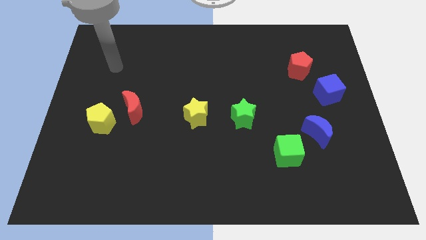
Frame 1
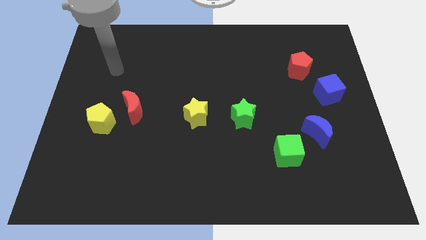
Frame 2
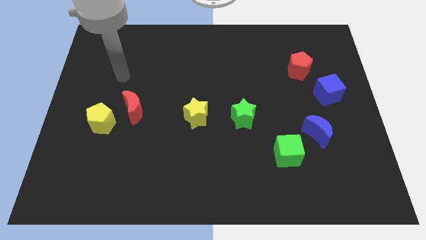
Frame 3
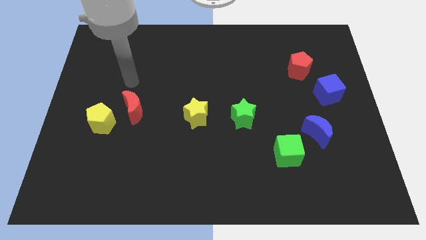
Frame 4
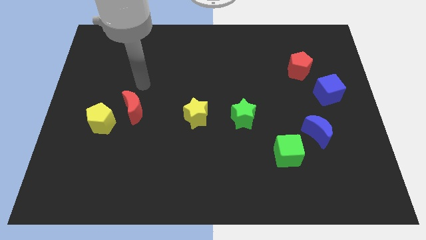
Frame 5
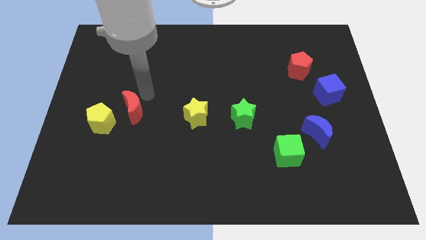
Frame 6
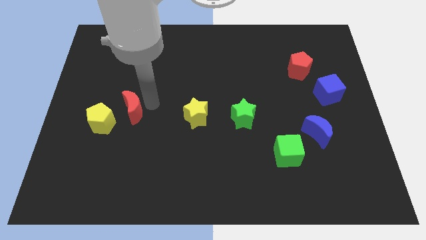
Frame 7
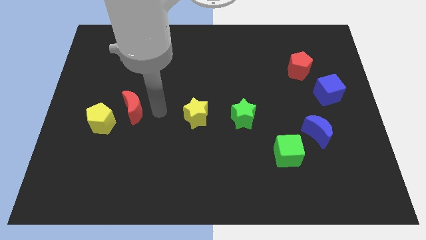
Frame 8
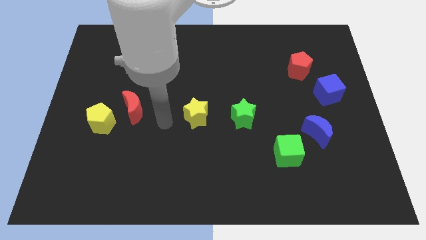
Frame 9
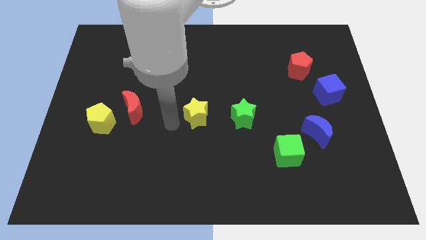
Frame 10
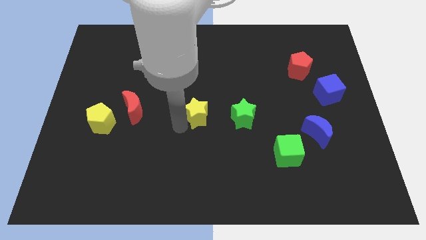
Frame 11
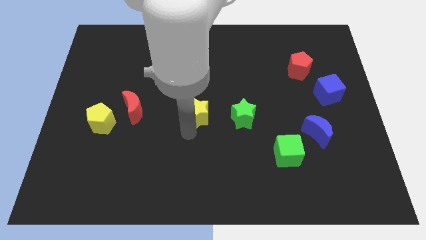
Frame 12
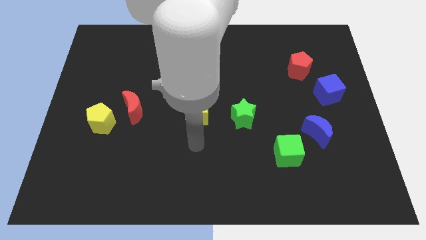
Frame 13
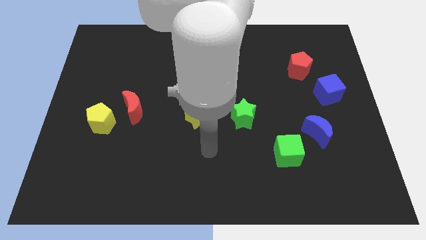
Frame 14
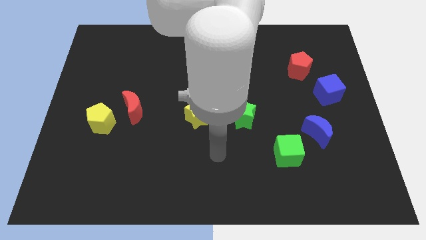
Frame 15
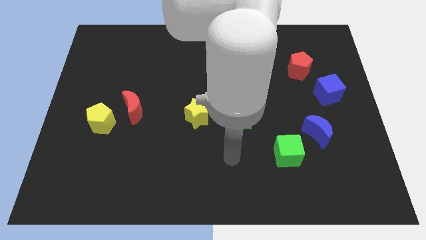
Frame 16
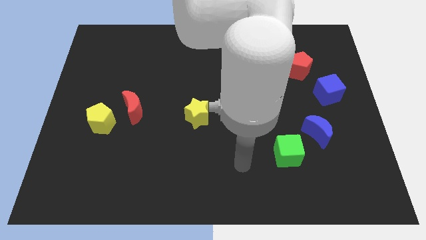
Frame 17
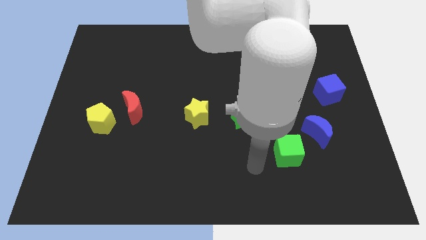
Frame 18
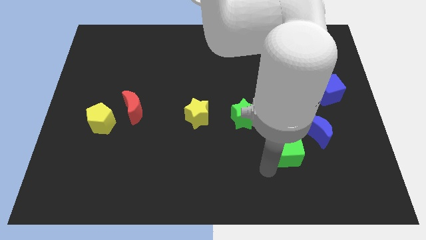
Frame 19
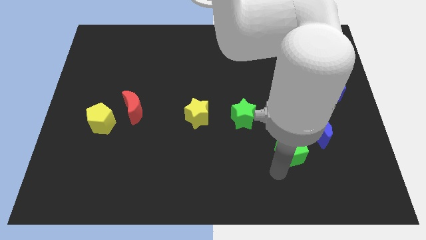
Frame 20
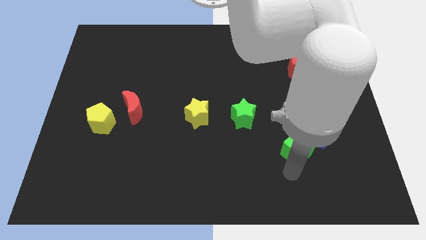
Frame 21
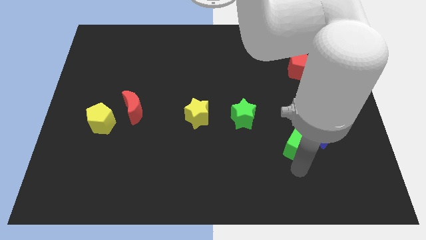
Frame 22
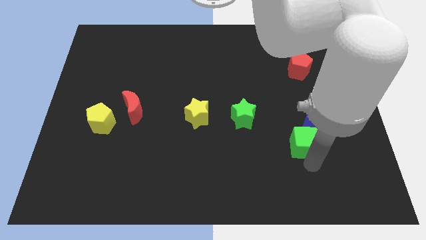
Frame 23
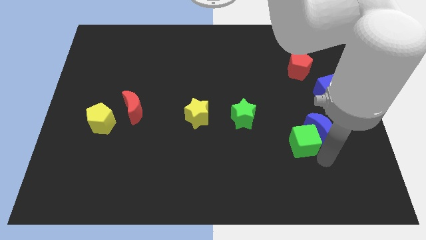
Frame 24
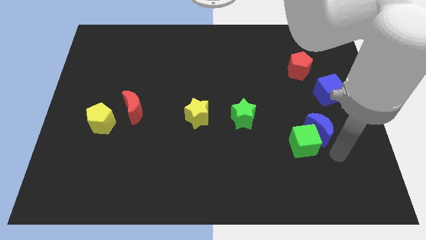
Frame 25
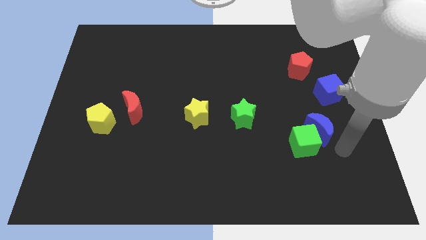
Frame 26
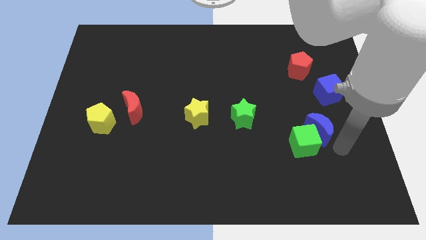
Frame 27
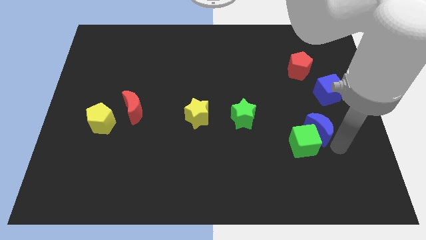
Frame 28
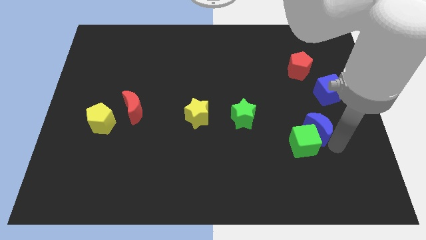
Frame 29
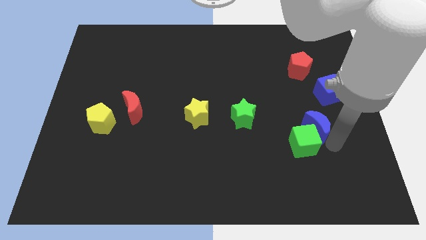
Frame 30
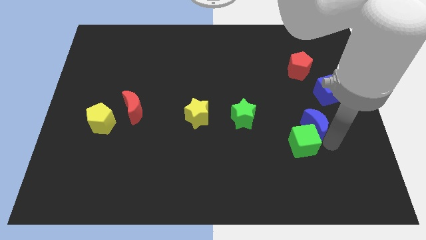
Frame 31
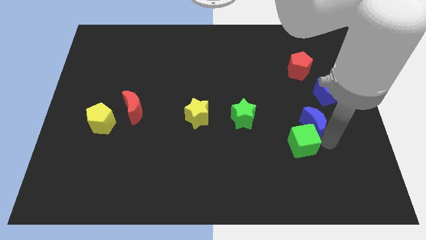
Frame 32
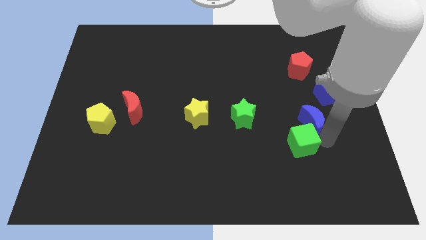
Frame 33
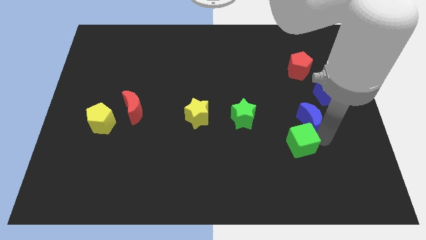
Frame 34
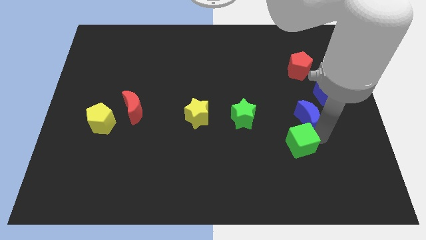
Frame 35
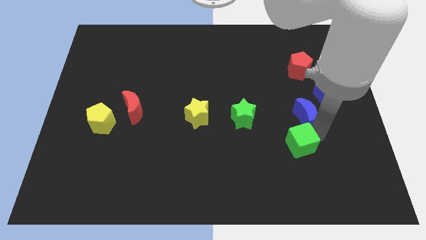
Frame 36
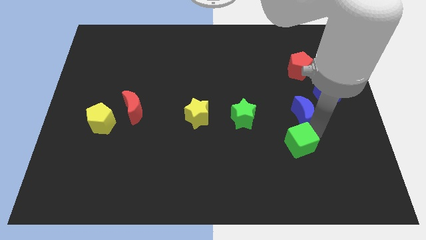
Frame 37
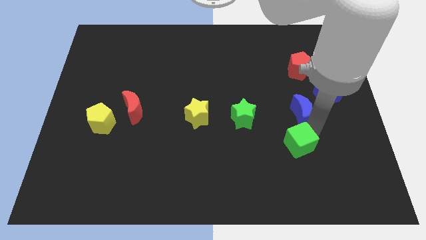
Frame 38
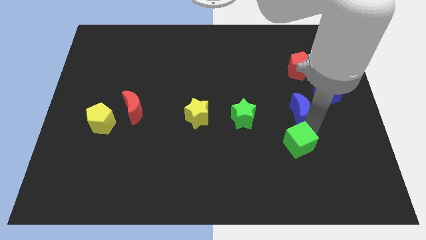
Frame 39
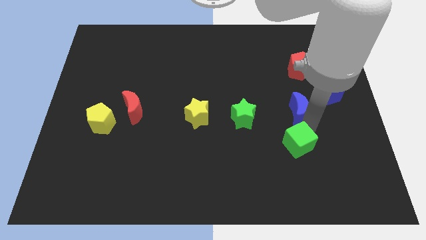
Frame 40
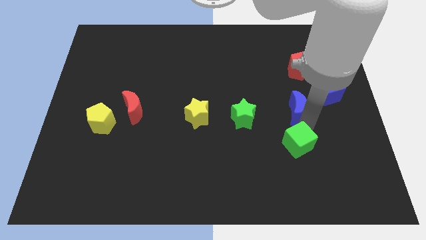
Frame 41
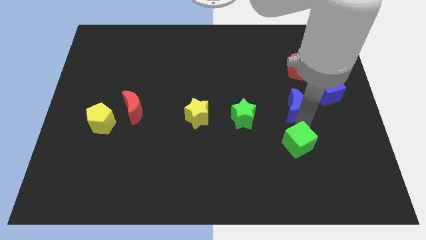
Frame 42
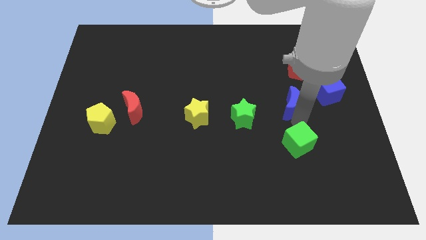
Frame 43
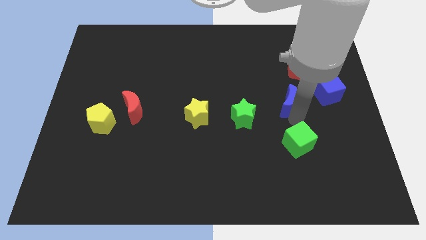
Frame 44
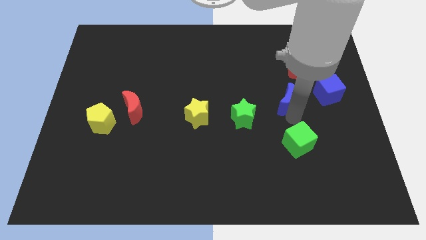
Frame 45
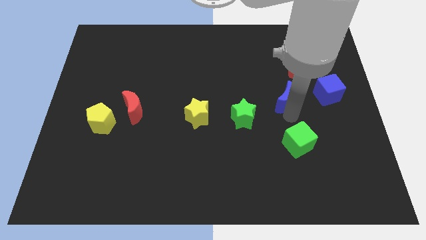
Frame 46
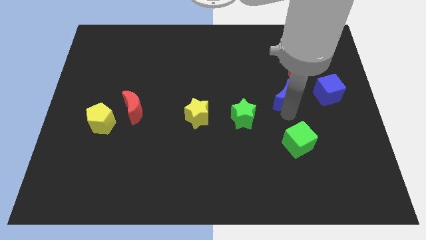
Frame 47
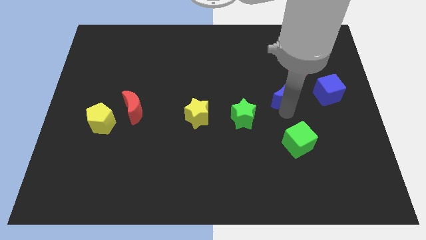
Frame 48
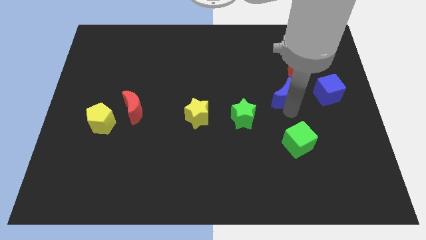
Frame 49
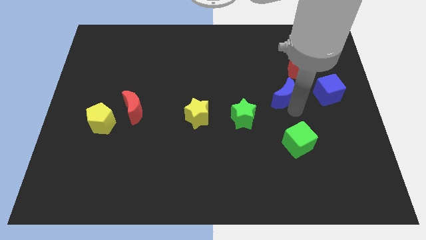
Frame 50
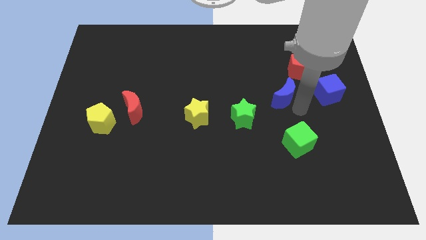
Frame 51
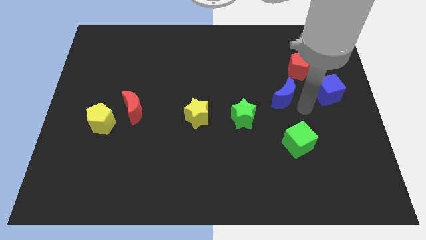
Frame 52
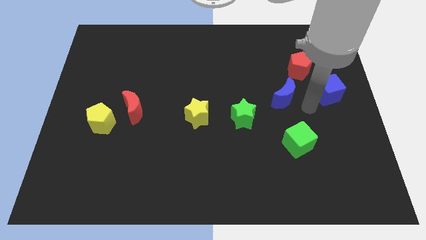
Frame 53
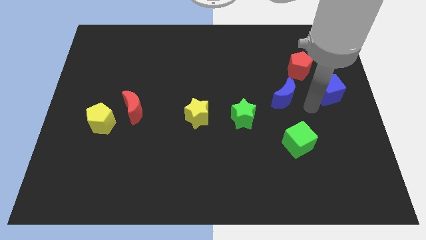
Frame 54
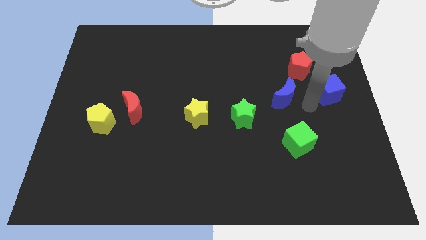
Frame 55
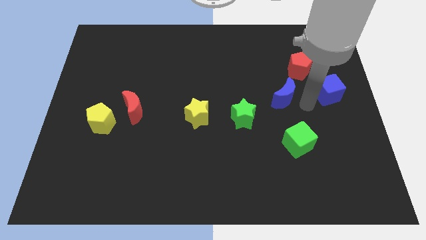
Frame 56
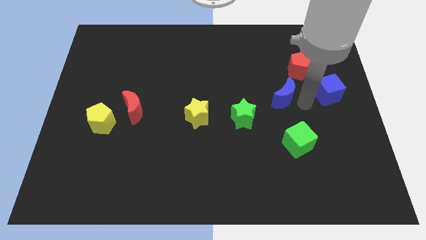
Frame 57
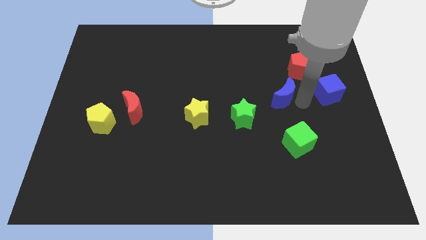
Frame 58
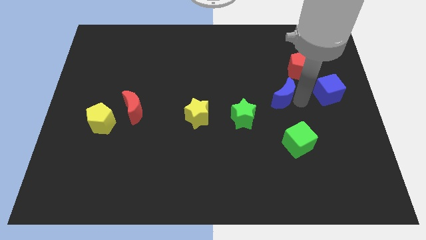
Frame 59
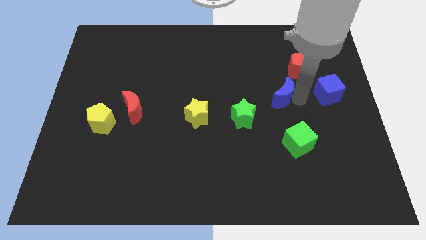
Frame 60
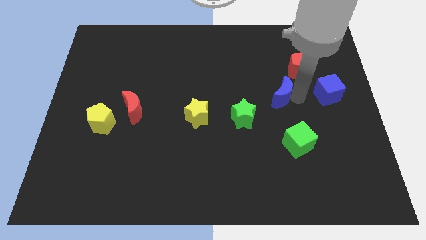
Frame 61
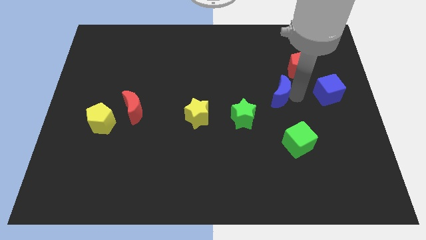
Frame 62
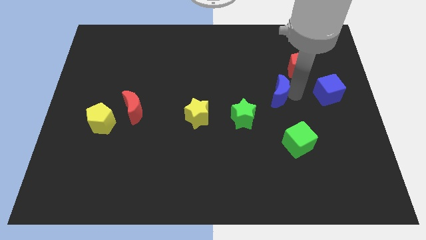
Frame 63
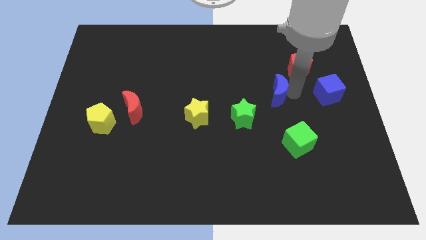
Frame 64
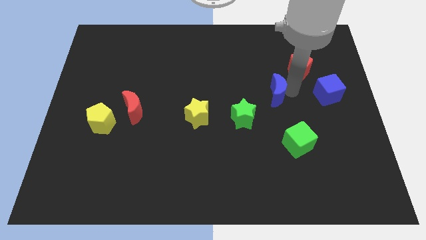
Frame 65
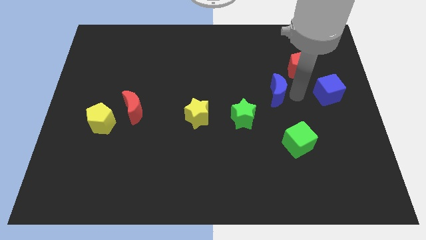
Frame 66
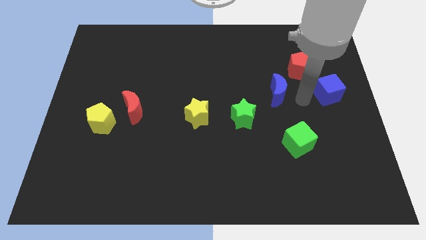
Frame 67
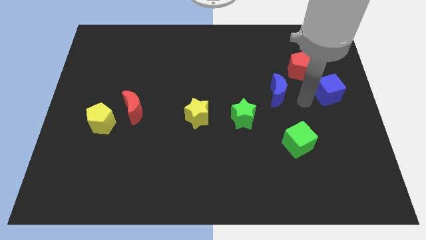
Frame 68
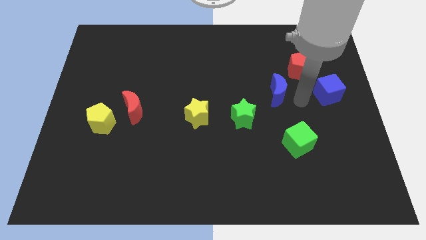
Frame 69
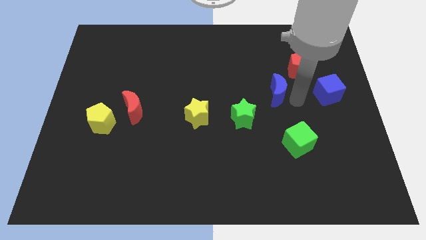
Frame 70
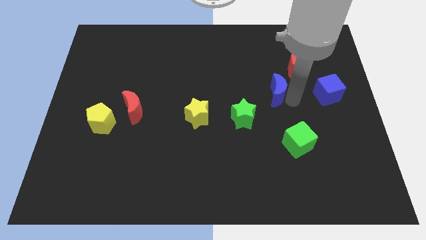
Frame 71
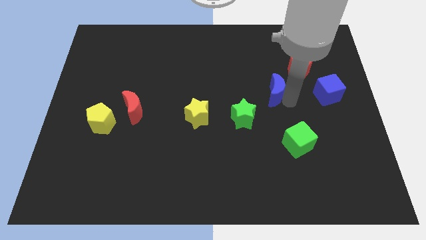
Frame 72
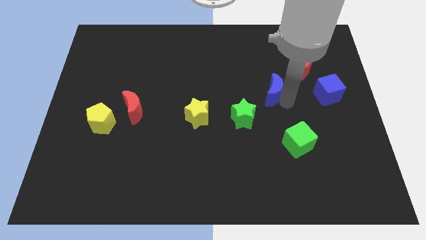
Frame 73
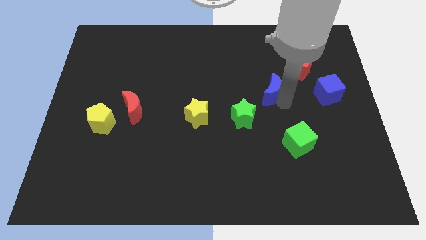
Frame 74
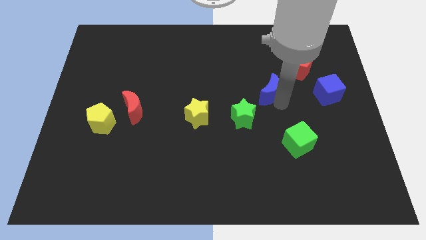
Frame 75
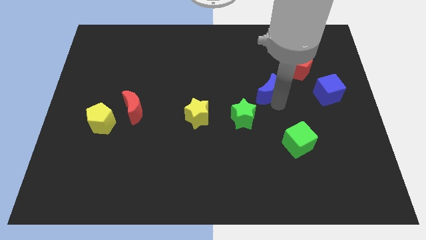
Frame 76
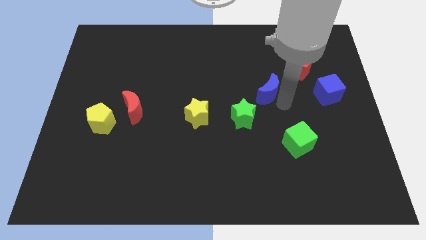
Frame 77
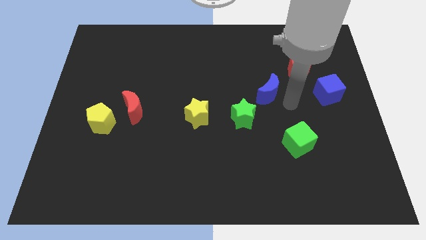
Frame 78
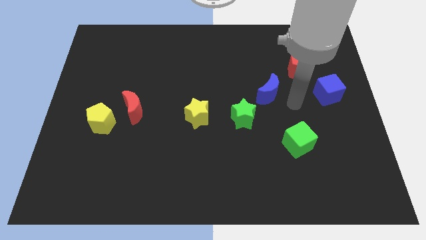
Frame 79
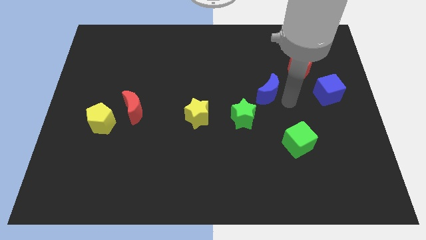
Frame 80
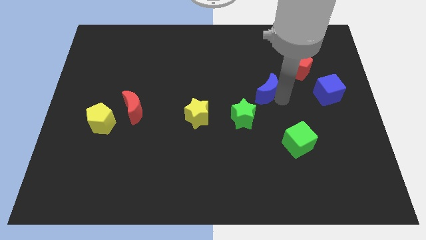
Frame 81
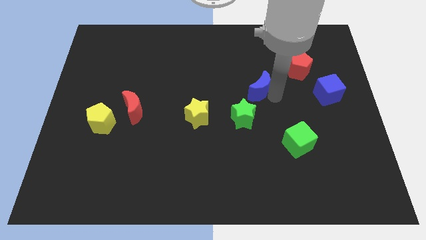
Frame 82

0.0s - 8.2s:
push the blue moon above the green star
